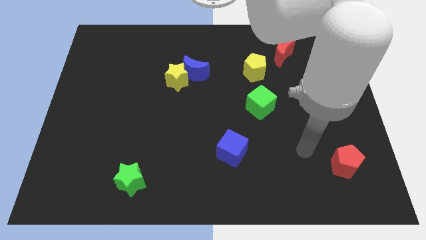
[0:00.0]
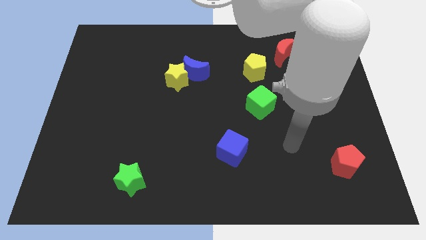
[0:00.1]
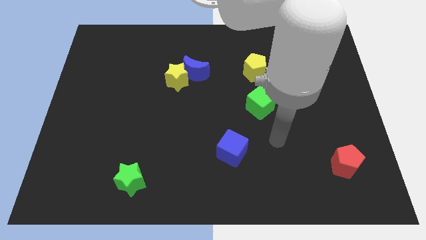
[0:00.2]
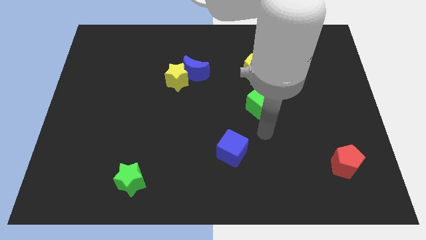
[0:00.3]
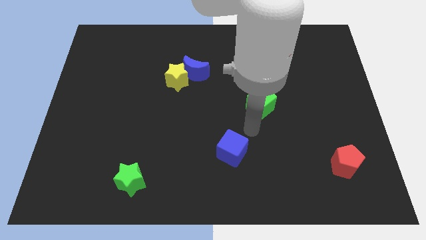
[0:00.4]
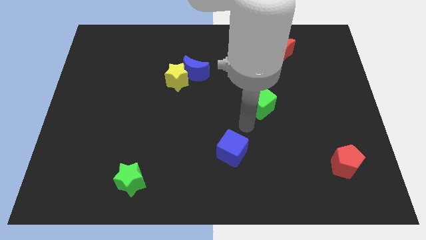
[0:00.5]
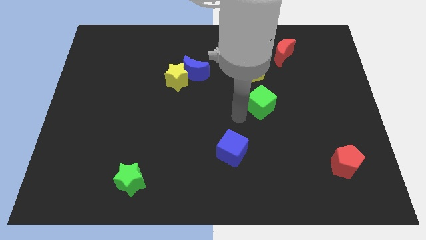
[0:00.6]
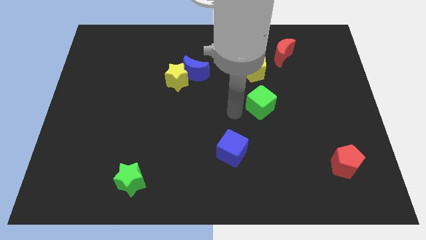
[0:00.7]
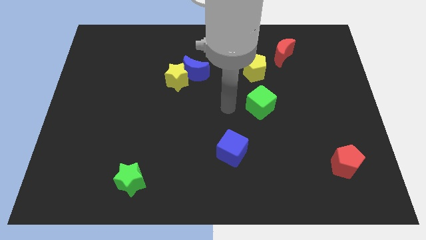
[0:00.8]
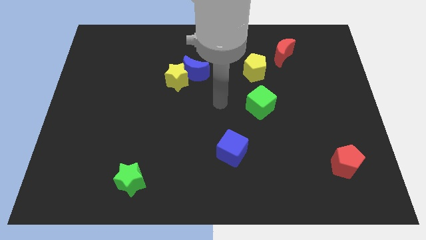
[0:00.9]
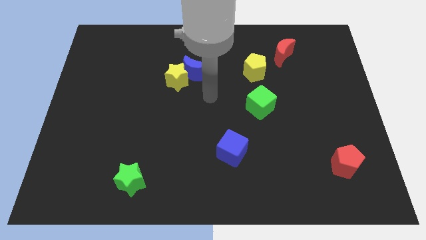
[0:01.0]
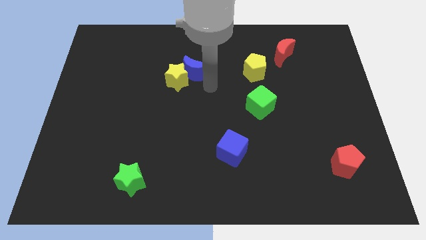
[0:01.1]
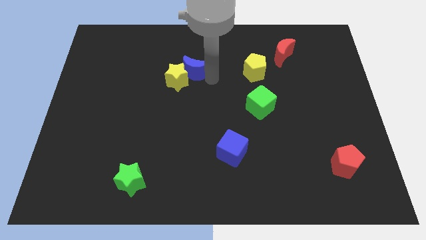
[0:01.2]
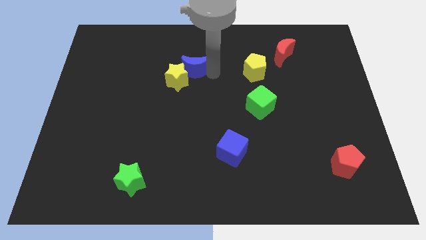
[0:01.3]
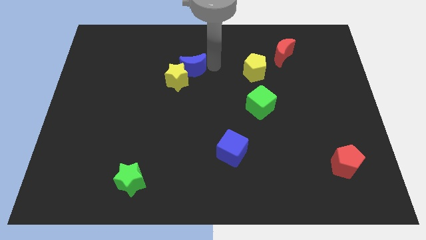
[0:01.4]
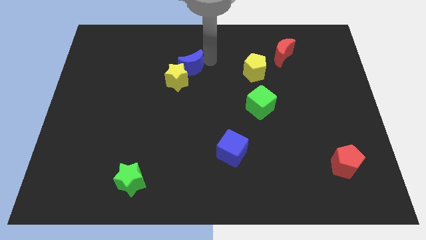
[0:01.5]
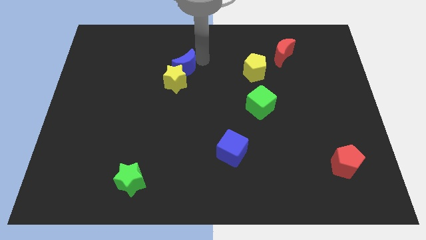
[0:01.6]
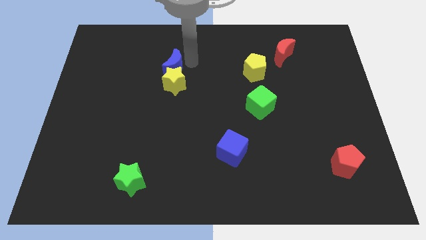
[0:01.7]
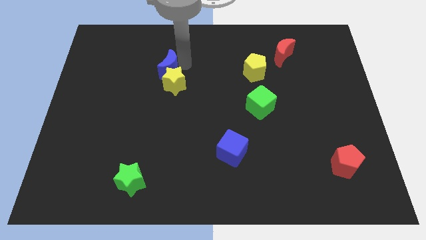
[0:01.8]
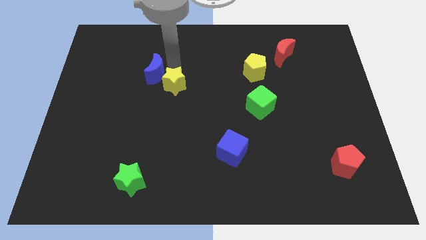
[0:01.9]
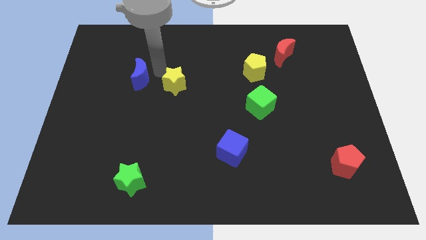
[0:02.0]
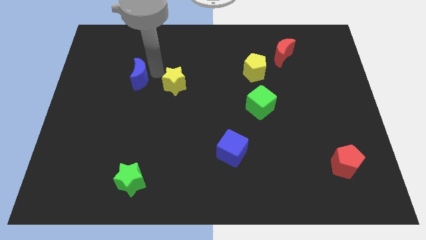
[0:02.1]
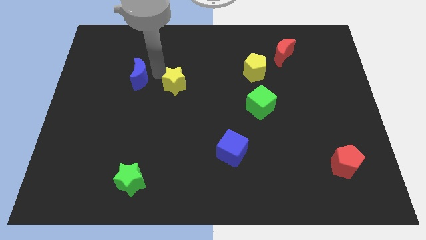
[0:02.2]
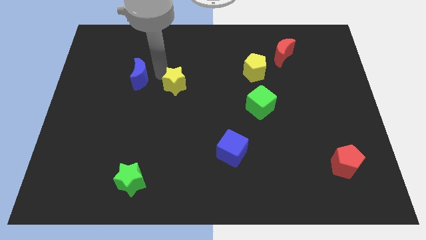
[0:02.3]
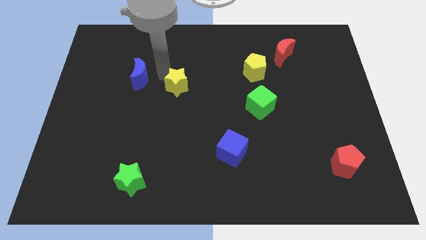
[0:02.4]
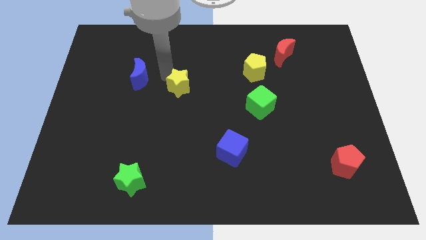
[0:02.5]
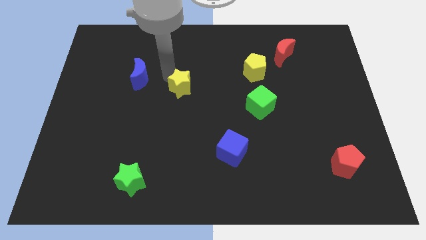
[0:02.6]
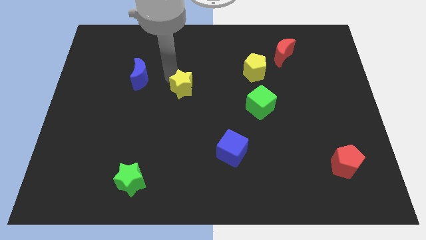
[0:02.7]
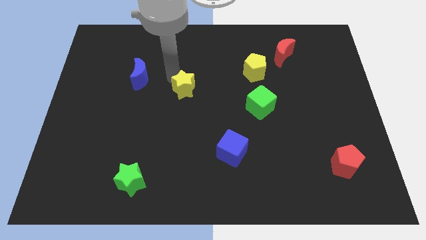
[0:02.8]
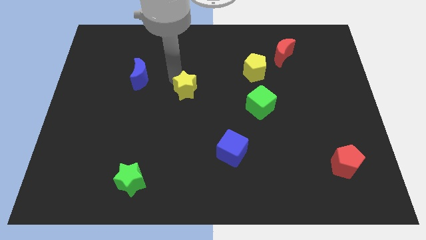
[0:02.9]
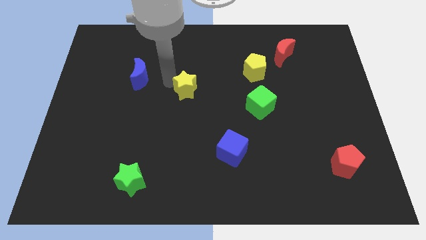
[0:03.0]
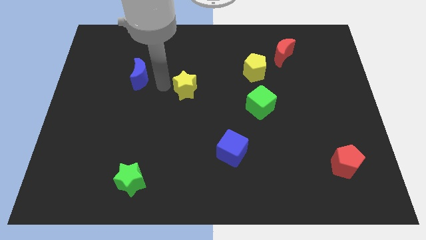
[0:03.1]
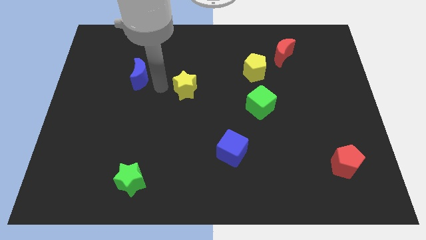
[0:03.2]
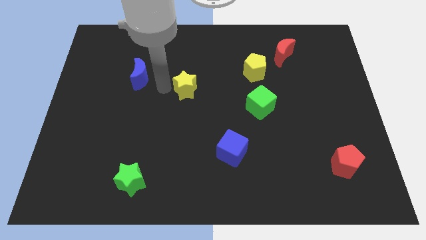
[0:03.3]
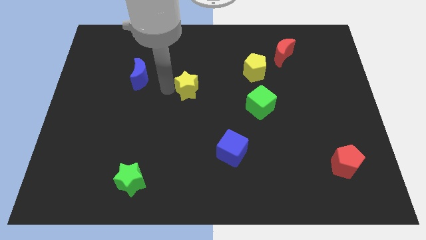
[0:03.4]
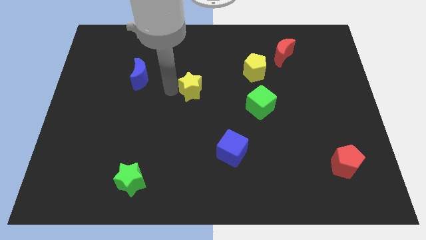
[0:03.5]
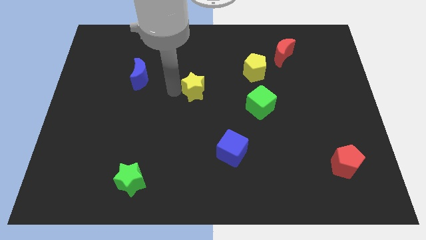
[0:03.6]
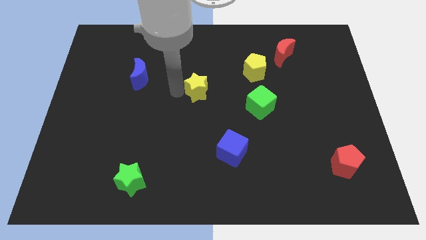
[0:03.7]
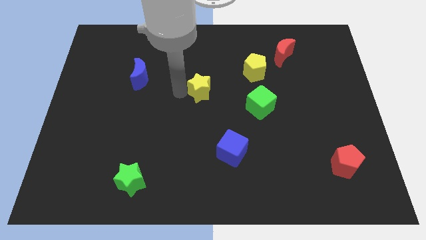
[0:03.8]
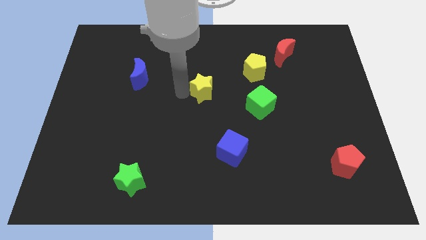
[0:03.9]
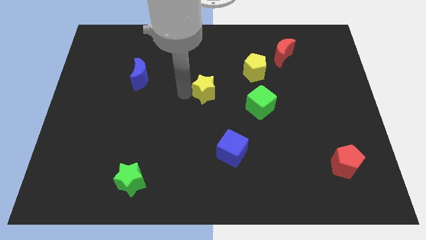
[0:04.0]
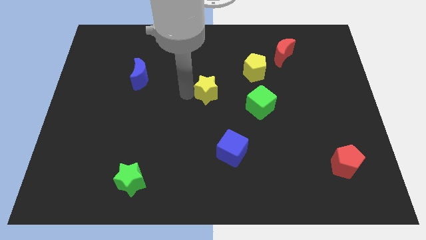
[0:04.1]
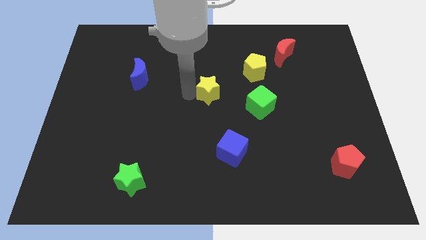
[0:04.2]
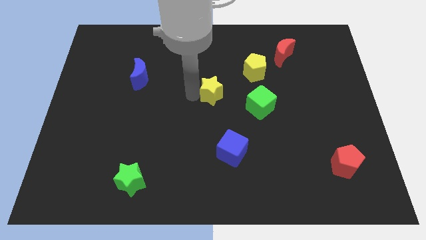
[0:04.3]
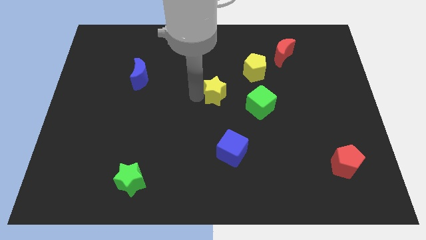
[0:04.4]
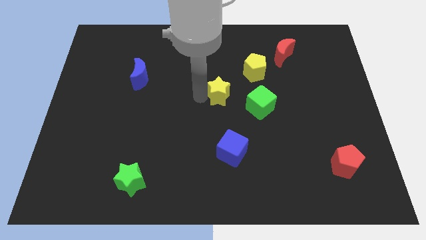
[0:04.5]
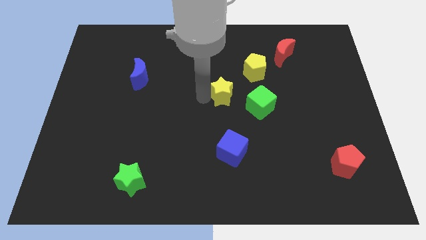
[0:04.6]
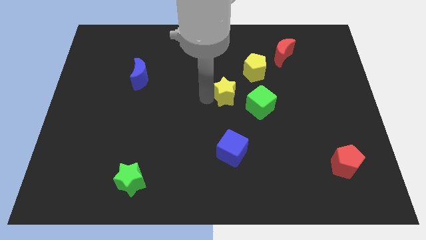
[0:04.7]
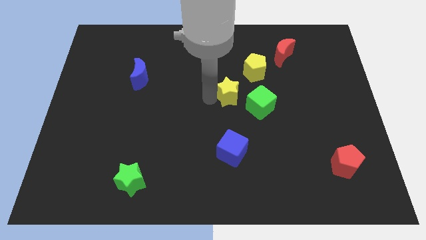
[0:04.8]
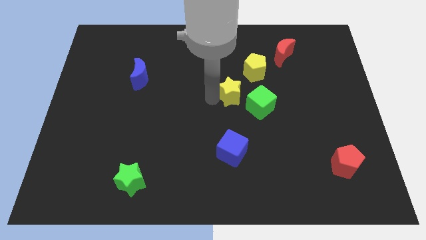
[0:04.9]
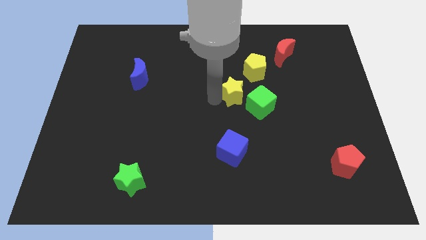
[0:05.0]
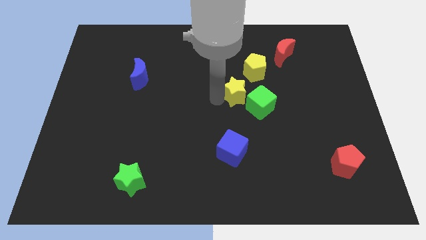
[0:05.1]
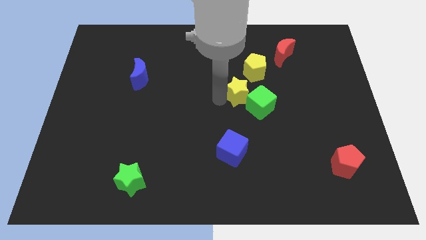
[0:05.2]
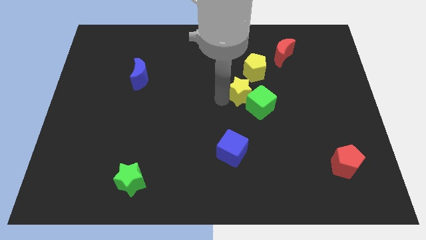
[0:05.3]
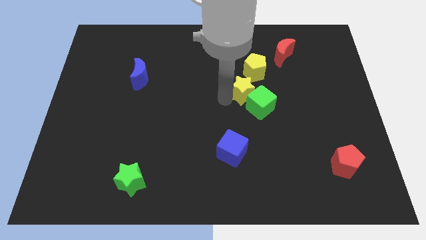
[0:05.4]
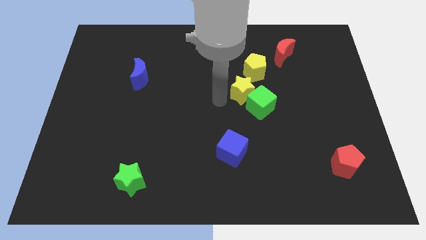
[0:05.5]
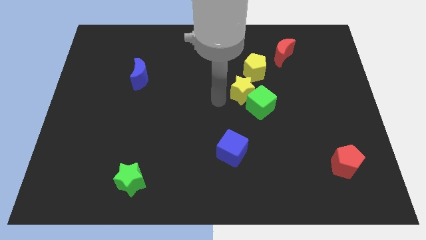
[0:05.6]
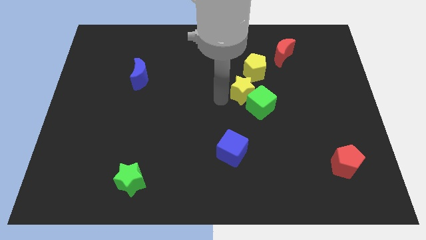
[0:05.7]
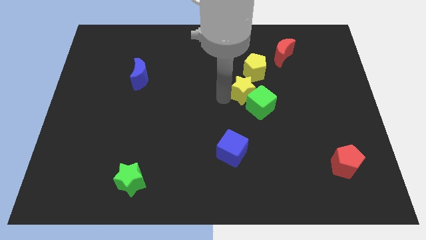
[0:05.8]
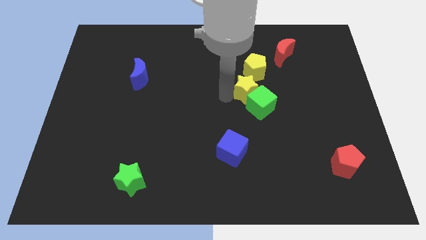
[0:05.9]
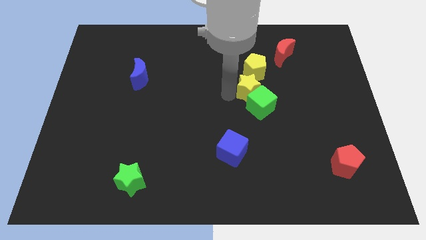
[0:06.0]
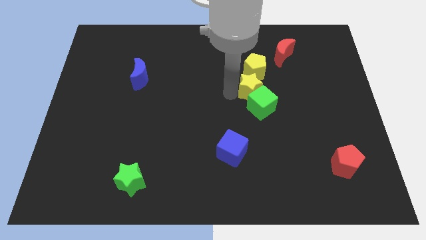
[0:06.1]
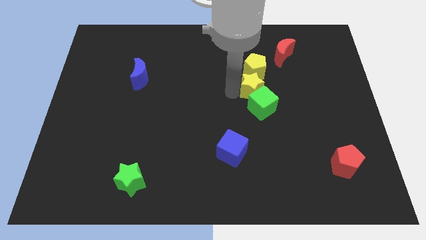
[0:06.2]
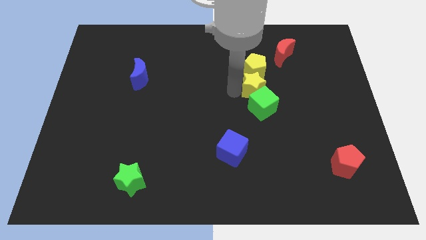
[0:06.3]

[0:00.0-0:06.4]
move the yellow star to the bottom right of the yellow pentagon

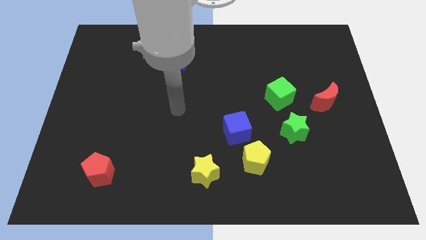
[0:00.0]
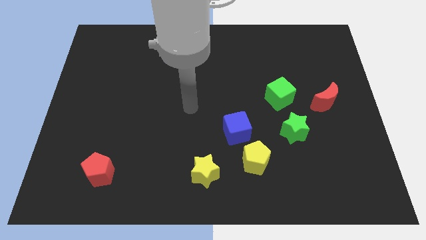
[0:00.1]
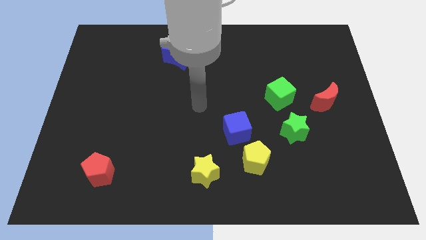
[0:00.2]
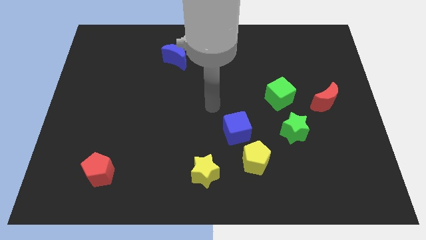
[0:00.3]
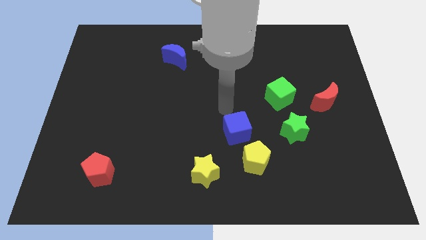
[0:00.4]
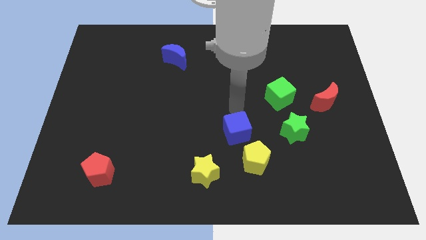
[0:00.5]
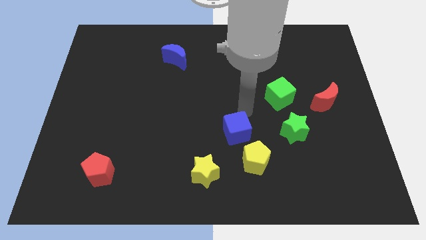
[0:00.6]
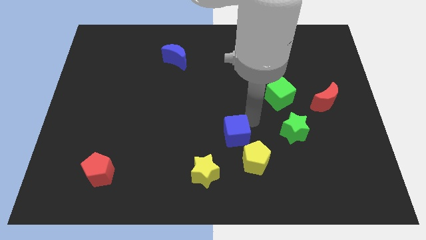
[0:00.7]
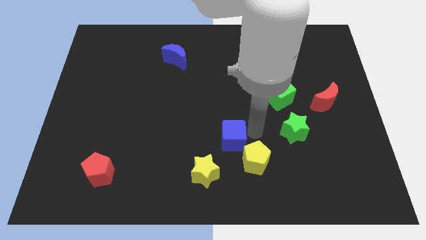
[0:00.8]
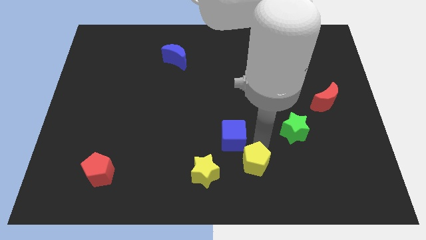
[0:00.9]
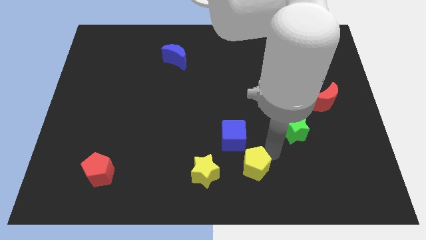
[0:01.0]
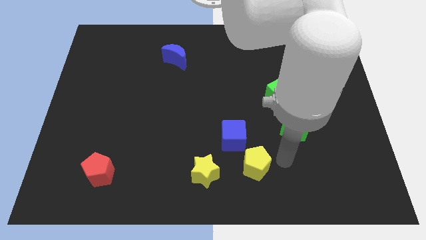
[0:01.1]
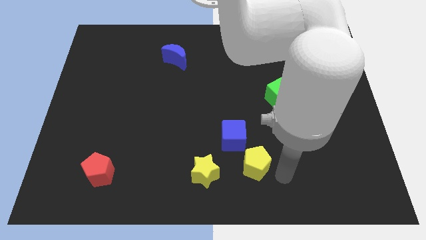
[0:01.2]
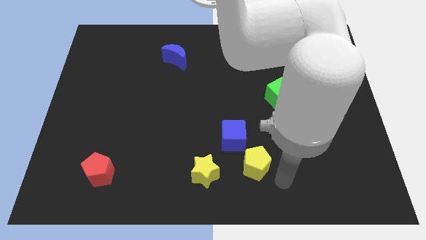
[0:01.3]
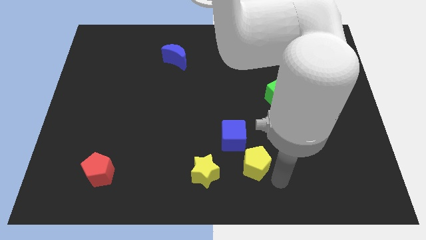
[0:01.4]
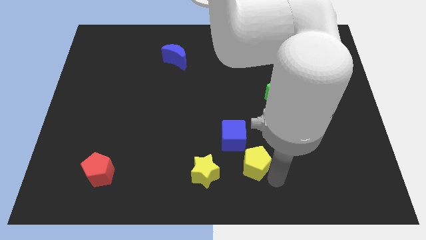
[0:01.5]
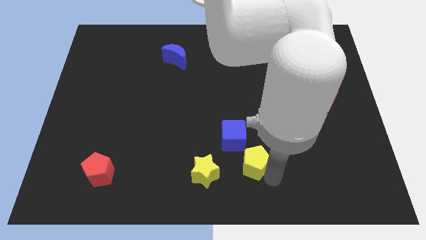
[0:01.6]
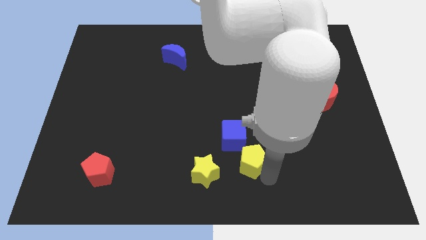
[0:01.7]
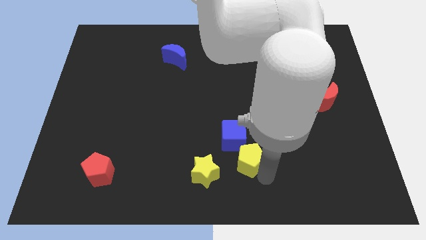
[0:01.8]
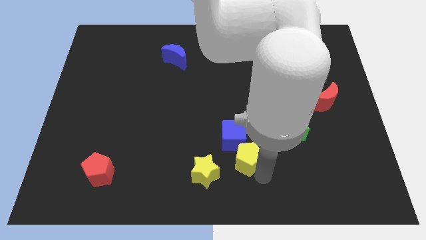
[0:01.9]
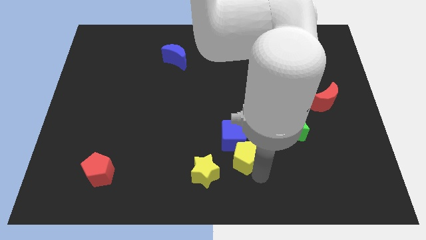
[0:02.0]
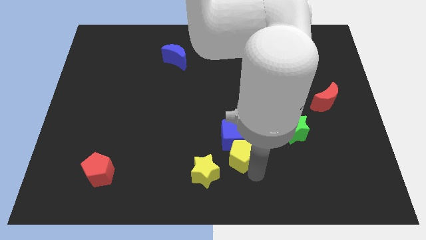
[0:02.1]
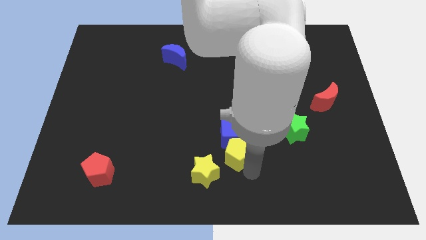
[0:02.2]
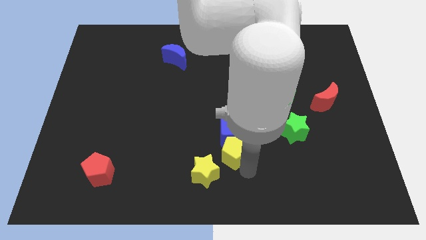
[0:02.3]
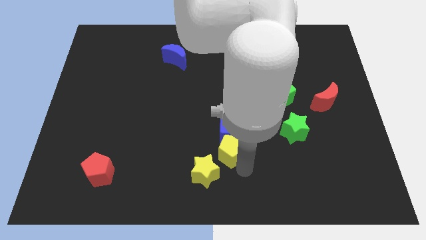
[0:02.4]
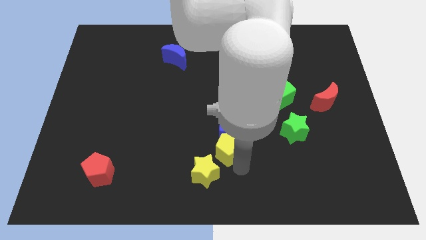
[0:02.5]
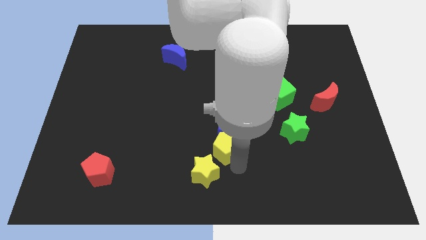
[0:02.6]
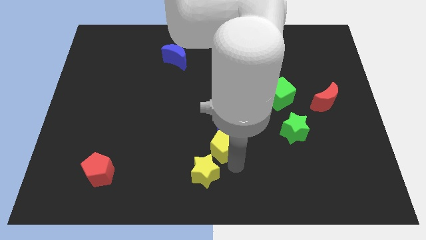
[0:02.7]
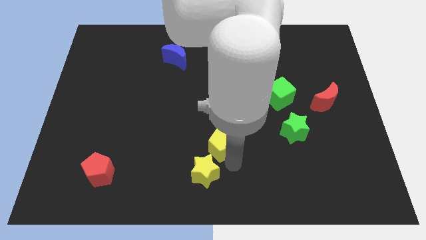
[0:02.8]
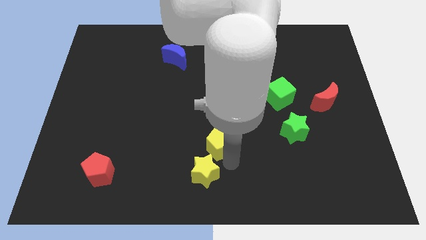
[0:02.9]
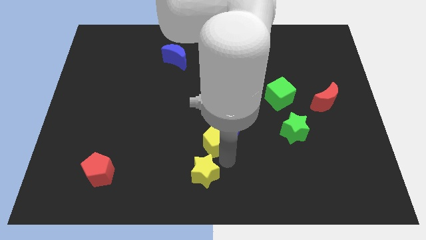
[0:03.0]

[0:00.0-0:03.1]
push the yellow pentagon left of the blue cube
